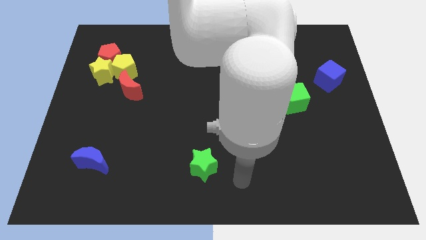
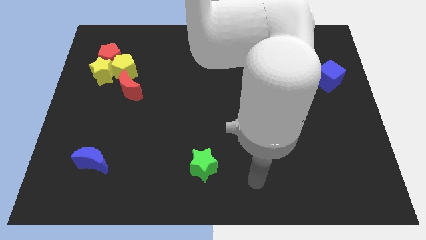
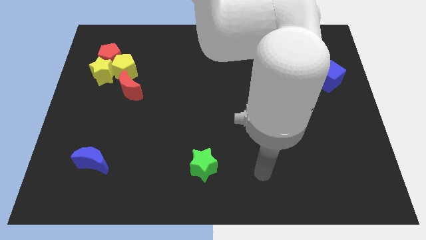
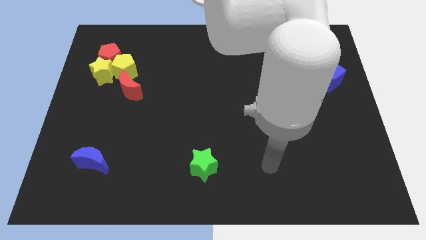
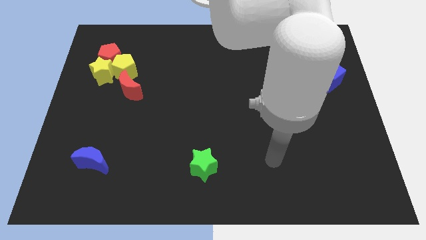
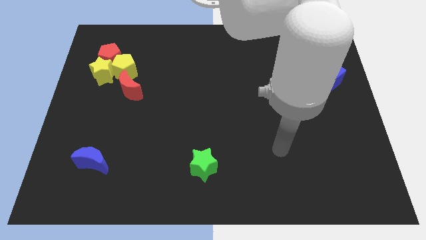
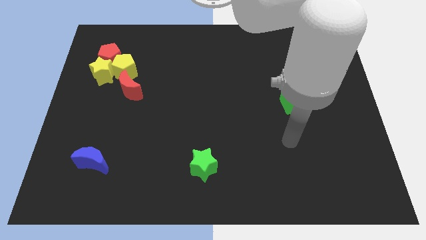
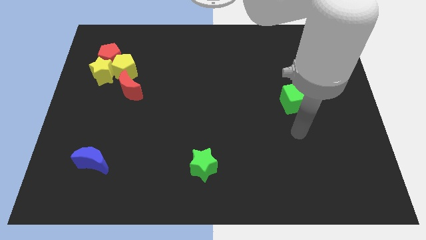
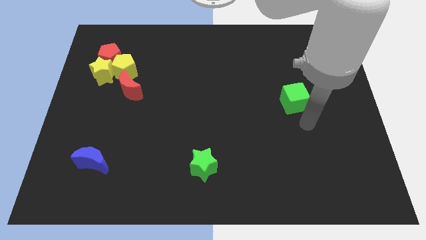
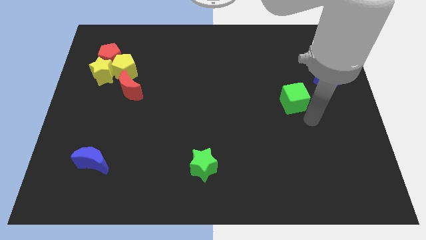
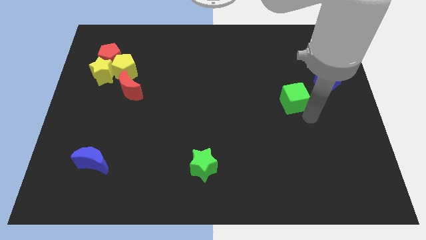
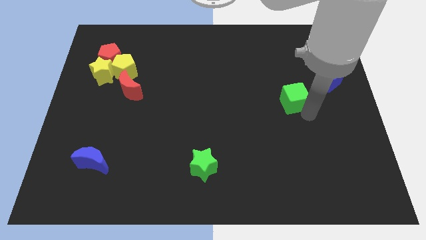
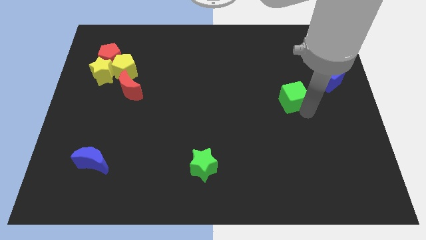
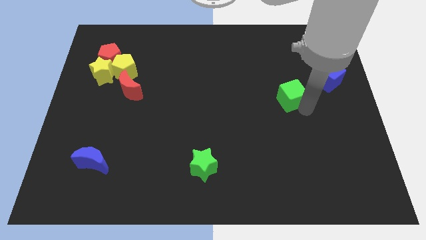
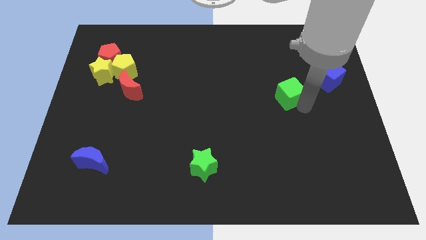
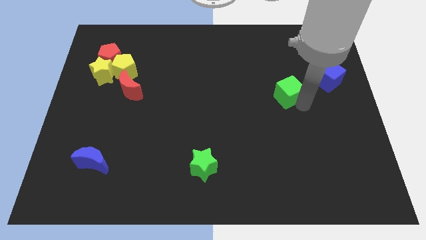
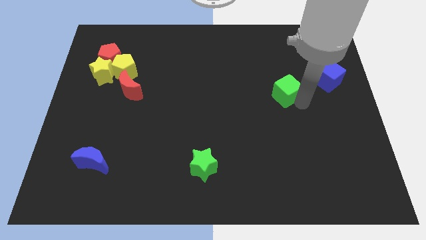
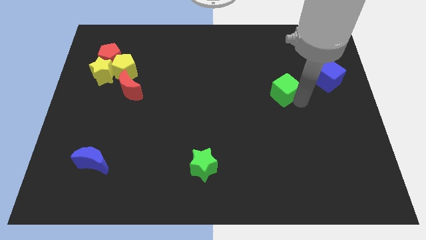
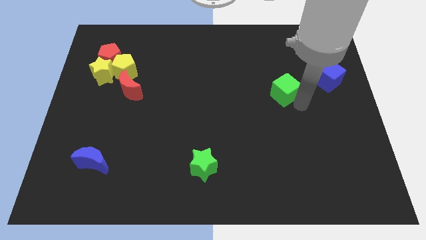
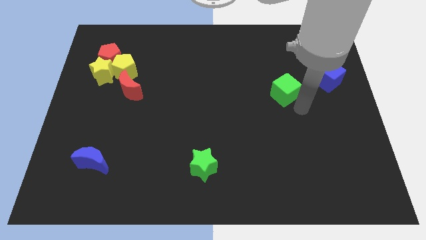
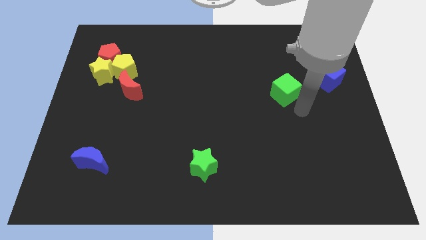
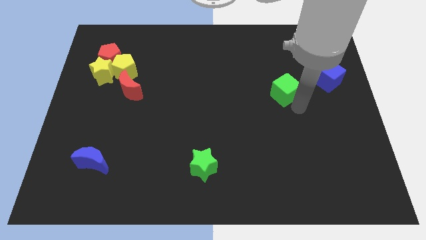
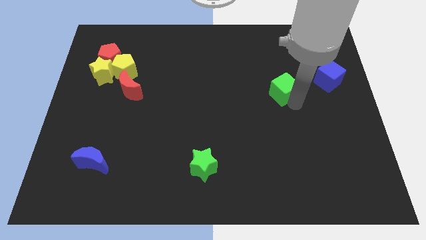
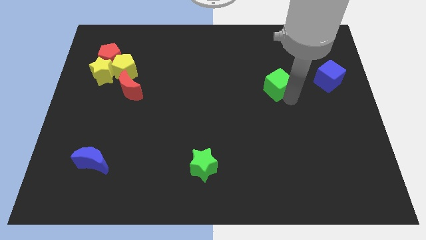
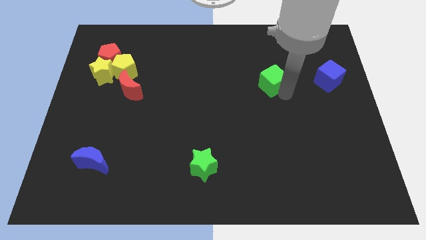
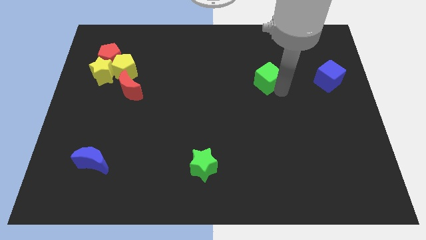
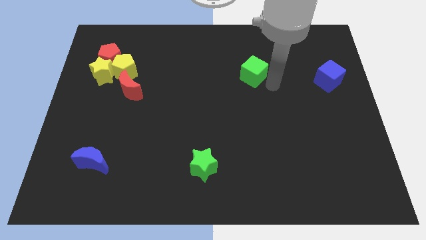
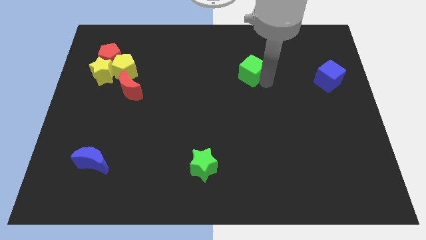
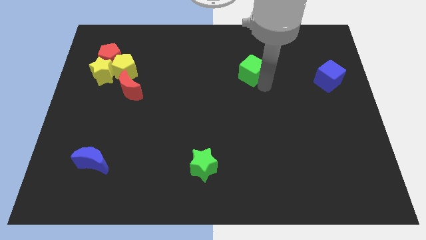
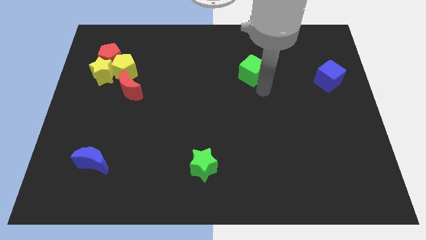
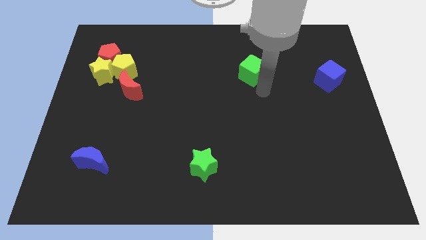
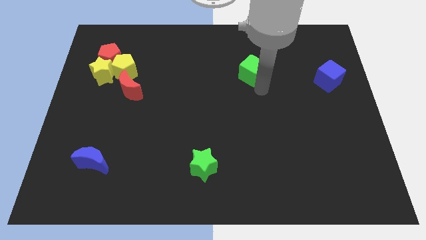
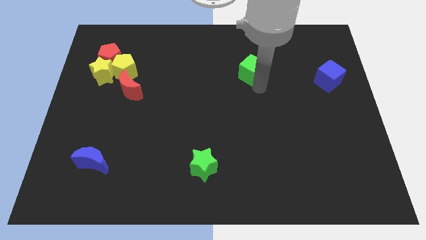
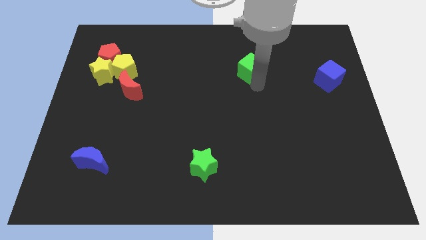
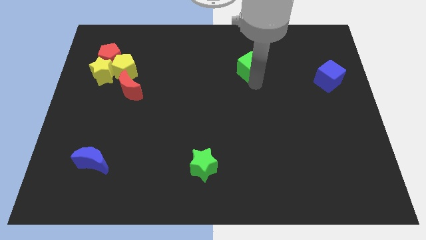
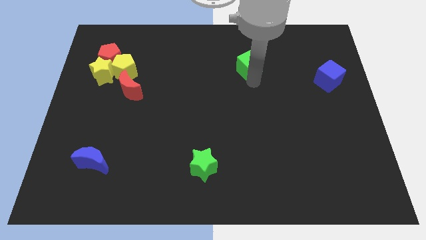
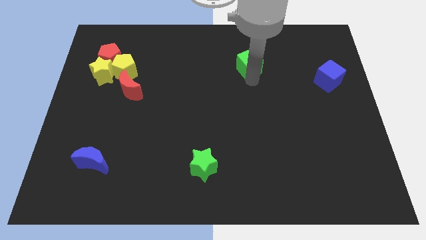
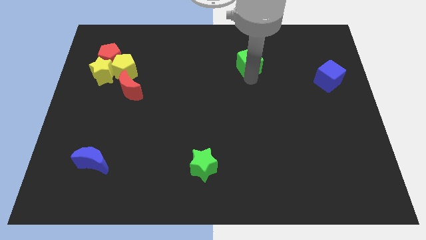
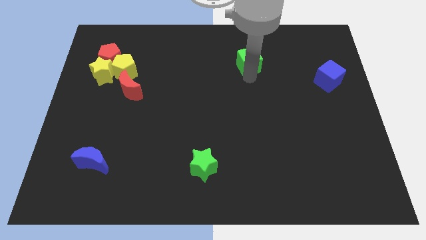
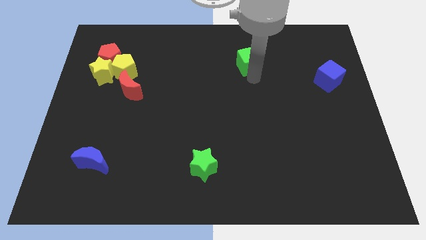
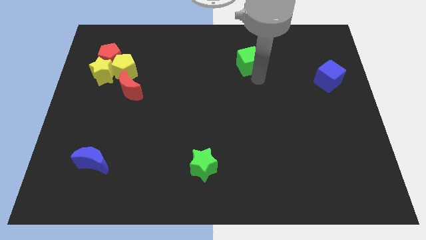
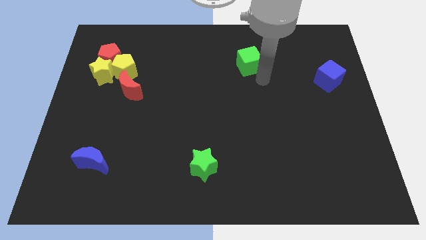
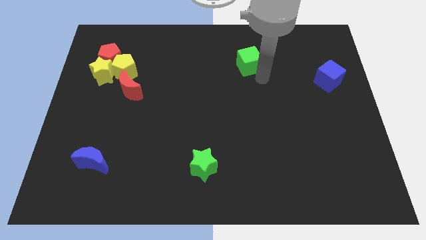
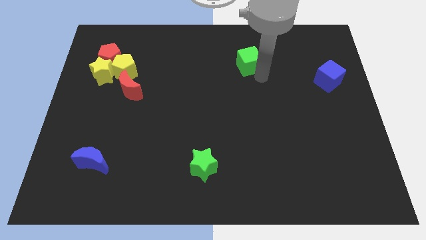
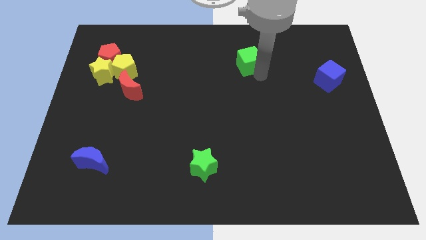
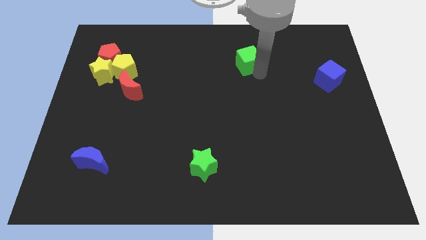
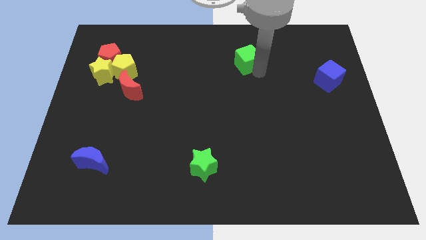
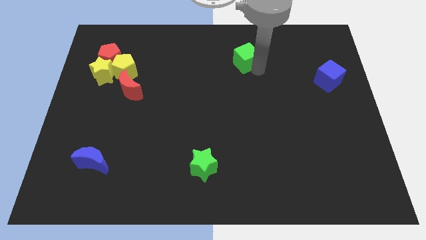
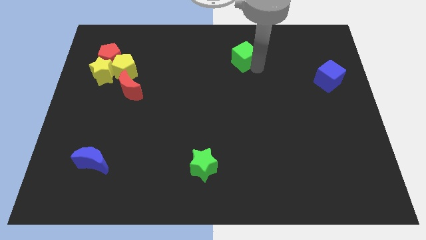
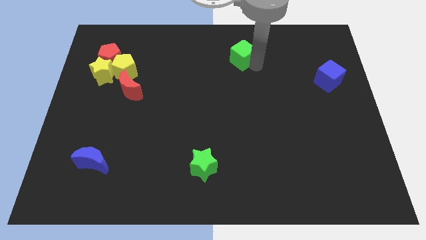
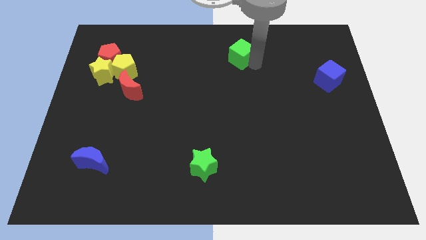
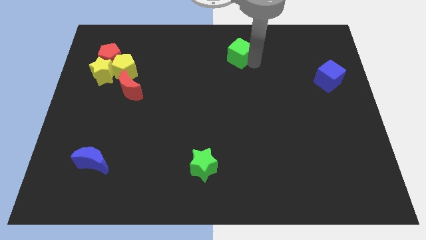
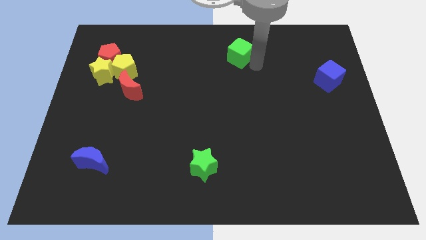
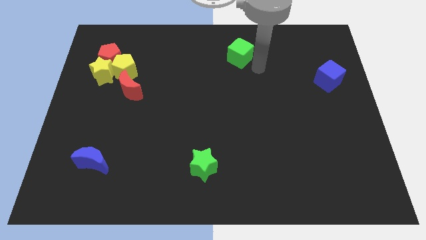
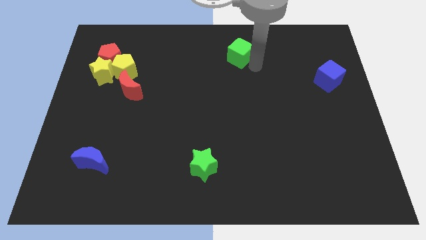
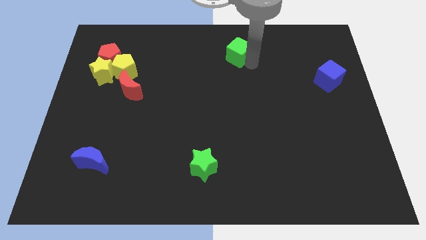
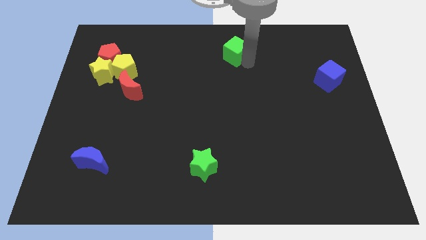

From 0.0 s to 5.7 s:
push the green cube to the top

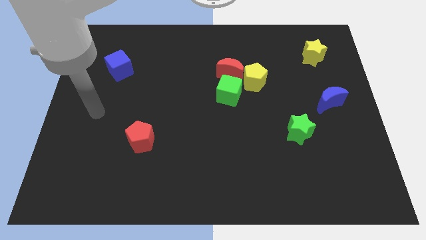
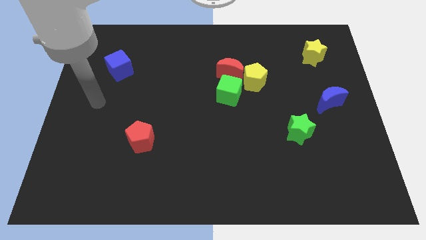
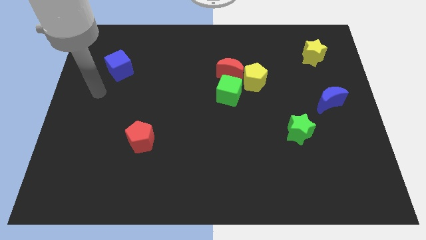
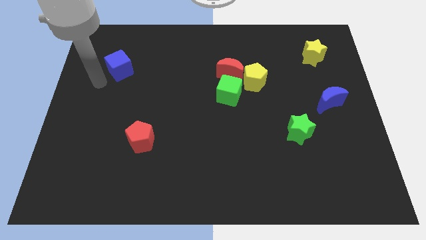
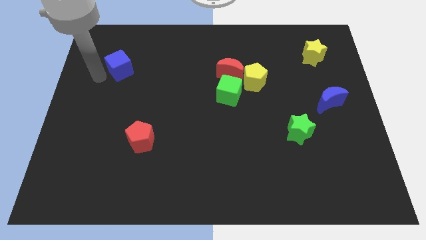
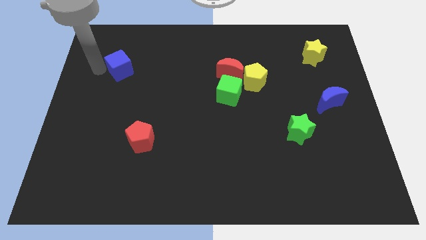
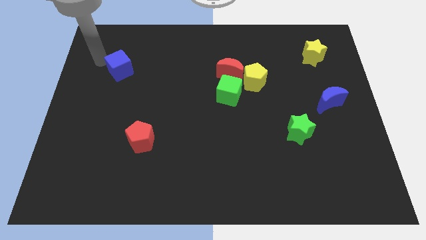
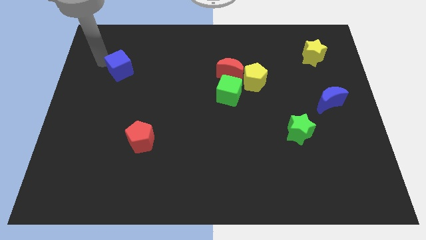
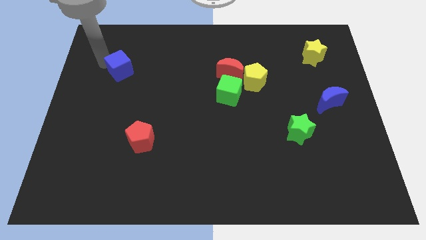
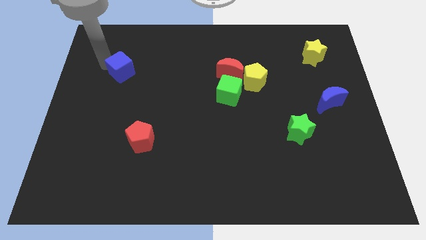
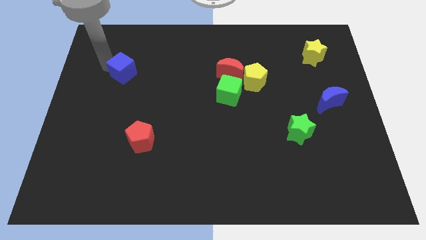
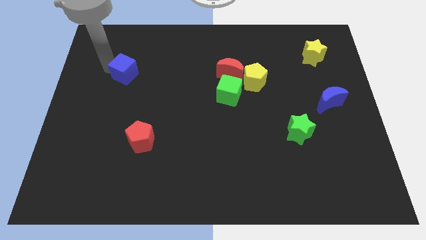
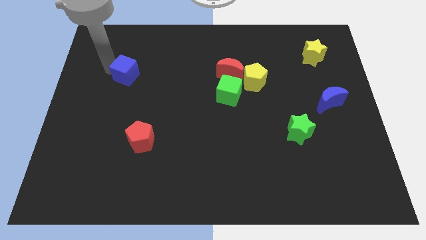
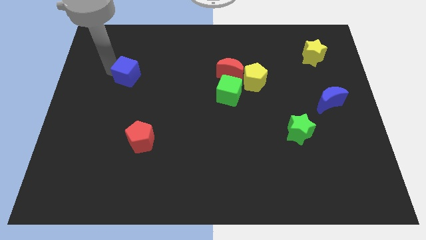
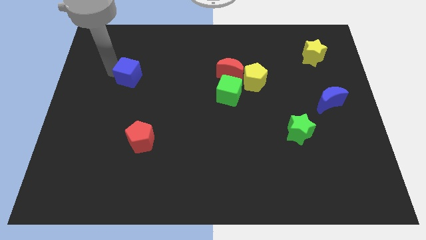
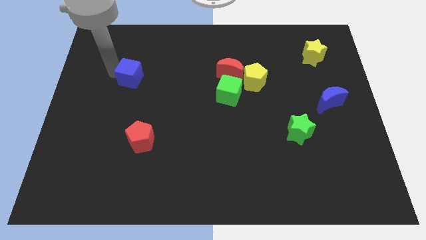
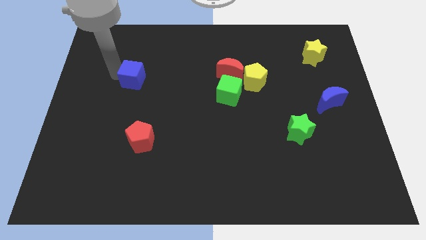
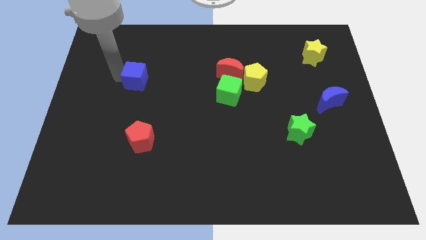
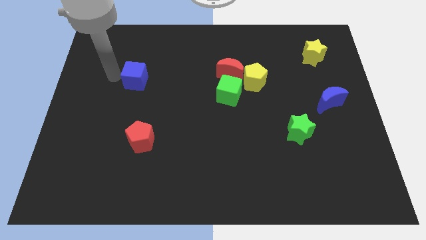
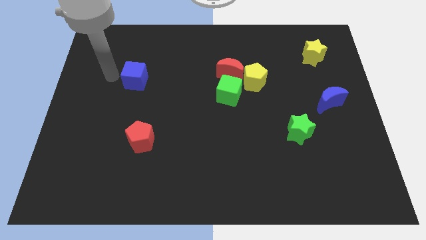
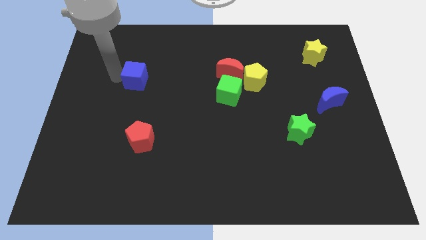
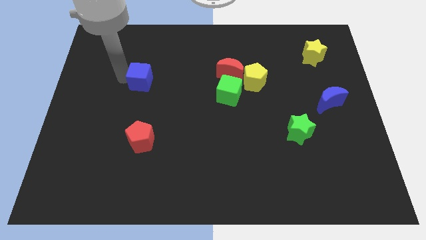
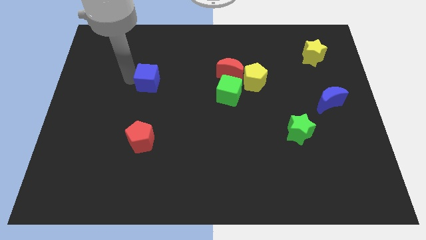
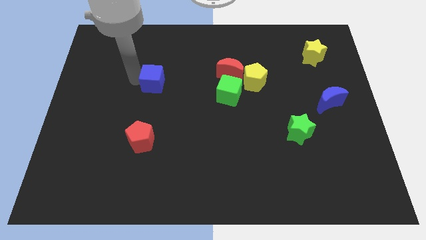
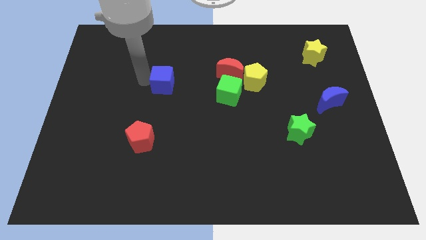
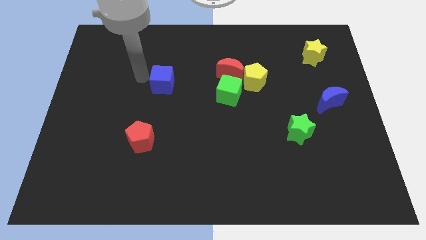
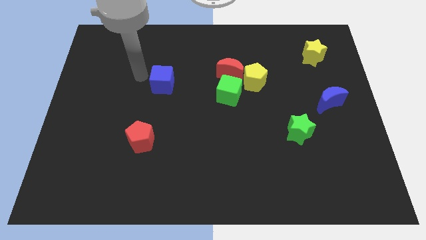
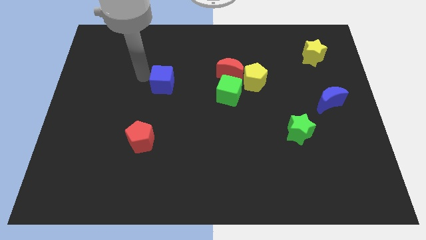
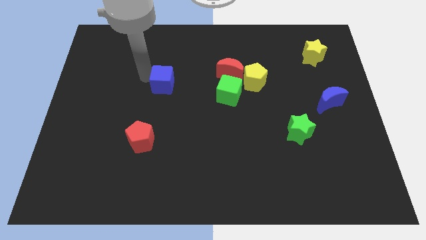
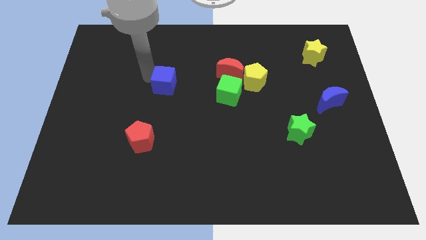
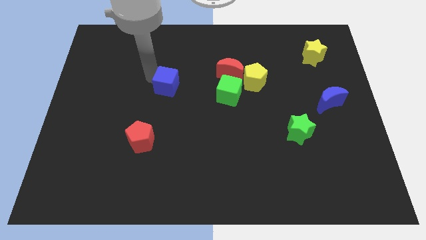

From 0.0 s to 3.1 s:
push the blue cube to the center
